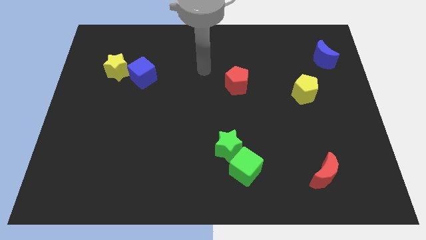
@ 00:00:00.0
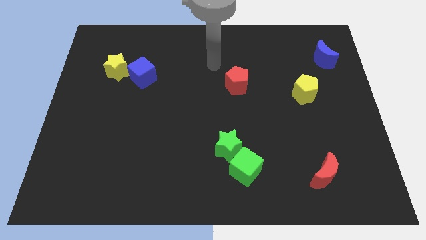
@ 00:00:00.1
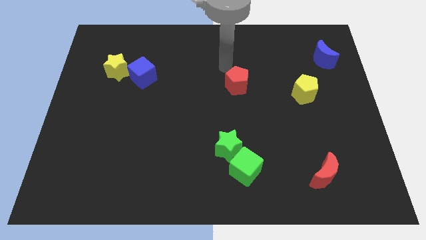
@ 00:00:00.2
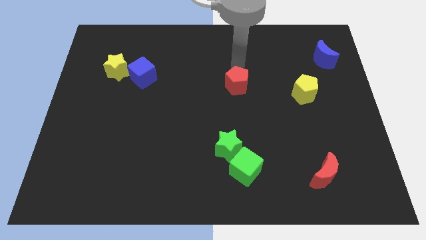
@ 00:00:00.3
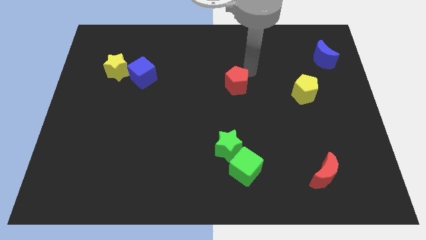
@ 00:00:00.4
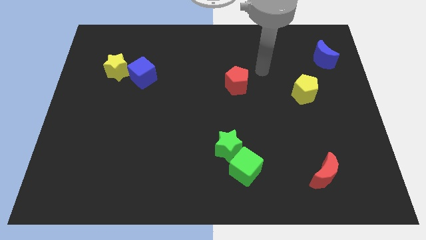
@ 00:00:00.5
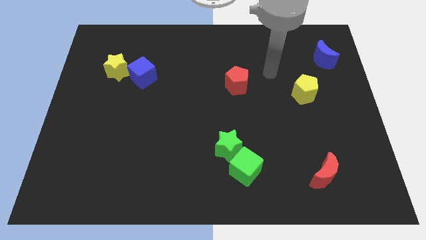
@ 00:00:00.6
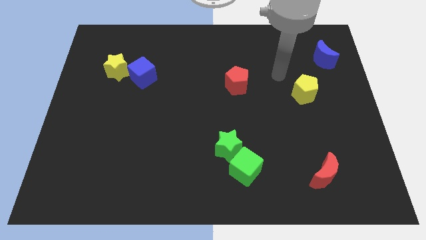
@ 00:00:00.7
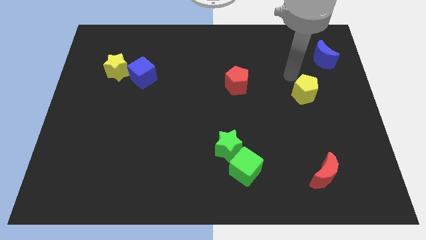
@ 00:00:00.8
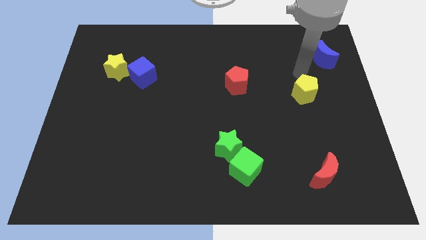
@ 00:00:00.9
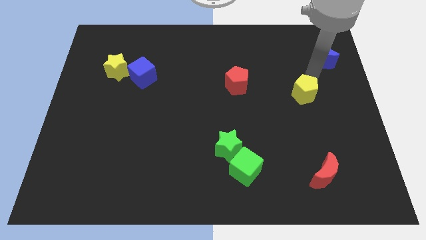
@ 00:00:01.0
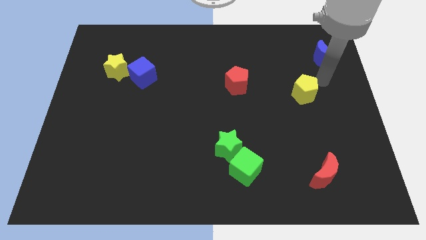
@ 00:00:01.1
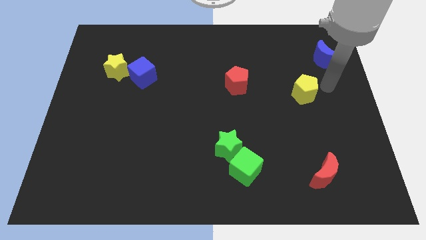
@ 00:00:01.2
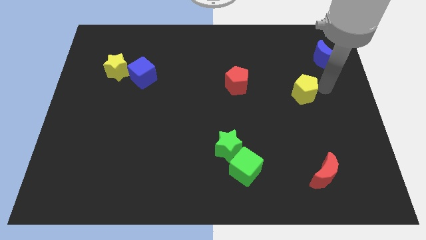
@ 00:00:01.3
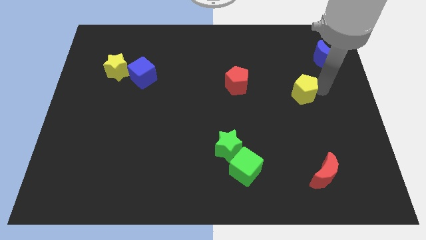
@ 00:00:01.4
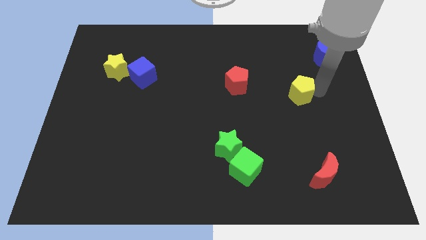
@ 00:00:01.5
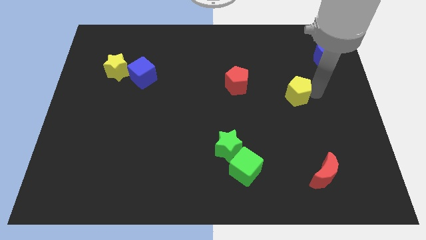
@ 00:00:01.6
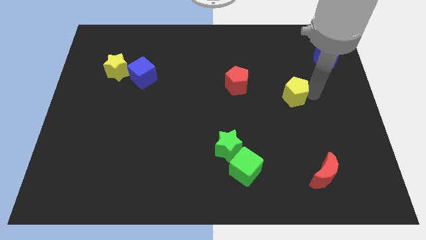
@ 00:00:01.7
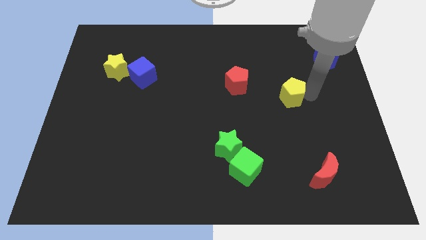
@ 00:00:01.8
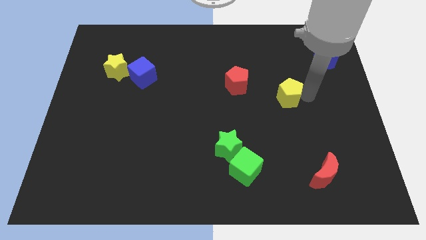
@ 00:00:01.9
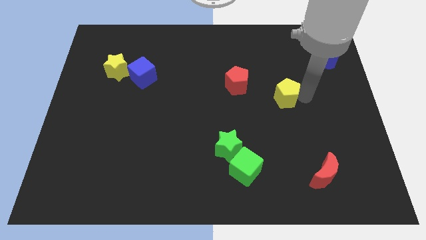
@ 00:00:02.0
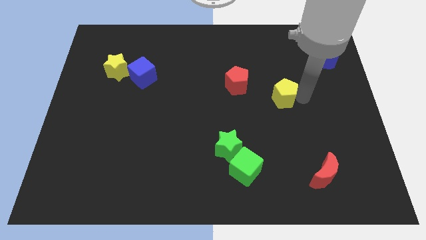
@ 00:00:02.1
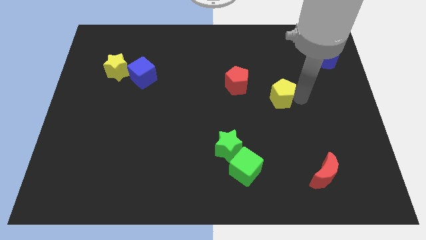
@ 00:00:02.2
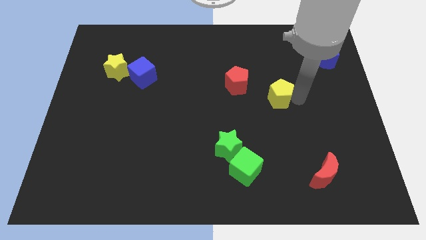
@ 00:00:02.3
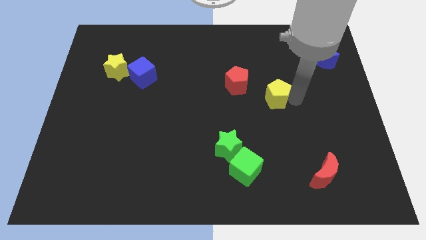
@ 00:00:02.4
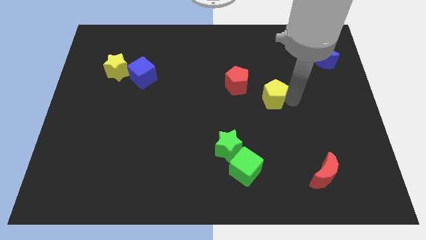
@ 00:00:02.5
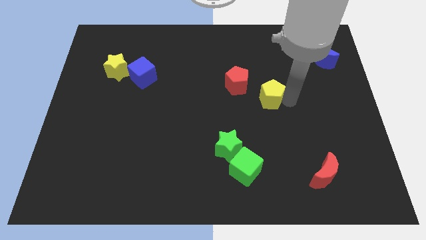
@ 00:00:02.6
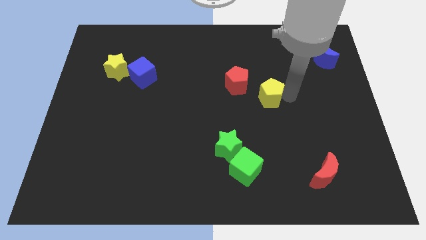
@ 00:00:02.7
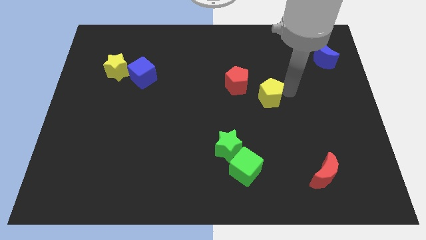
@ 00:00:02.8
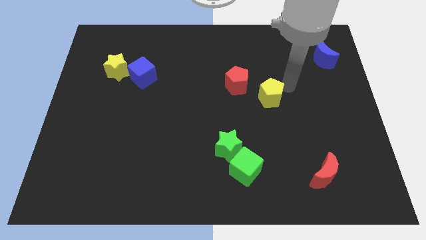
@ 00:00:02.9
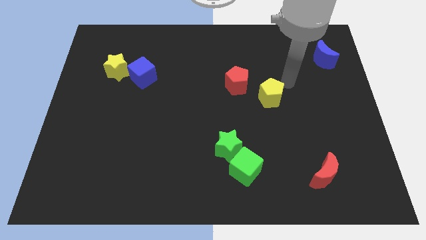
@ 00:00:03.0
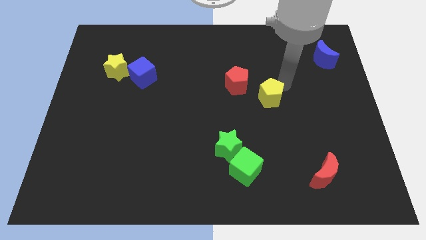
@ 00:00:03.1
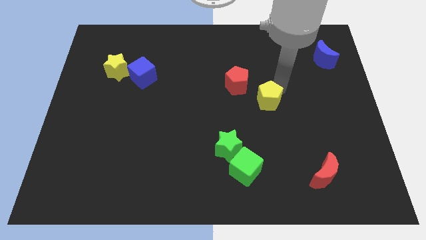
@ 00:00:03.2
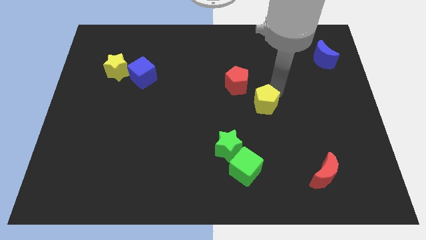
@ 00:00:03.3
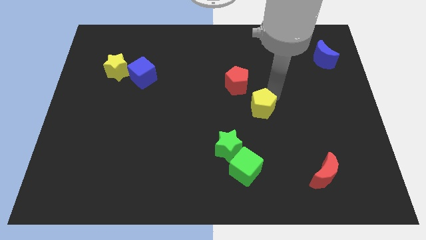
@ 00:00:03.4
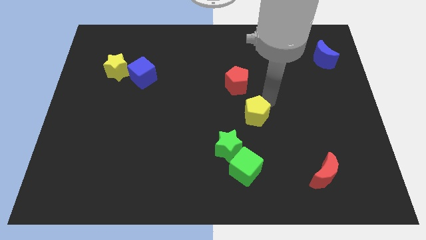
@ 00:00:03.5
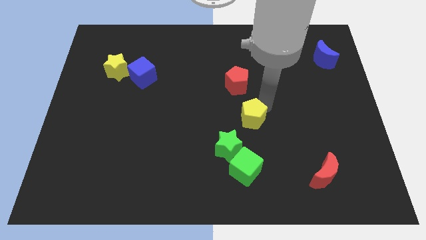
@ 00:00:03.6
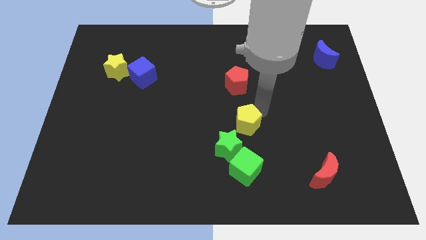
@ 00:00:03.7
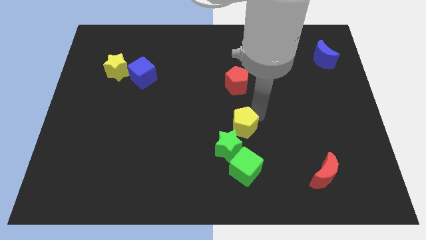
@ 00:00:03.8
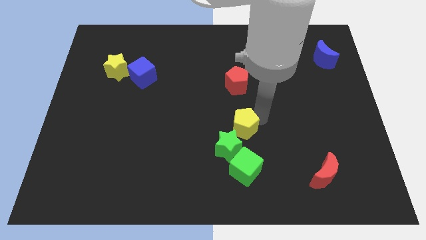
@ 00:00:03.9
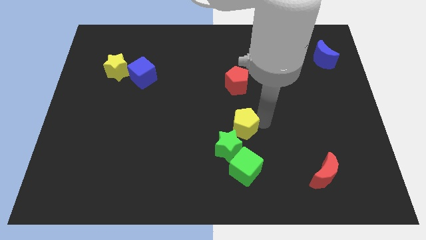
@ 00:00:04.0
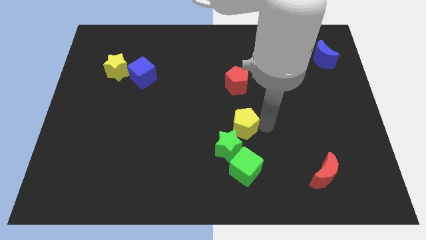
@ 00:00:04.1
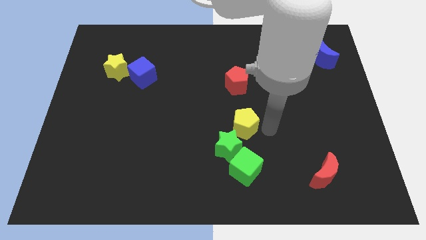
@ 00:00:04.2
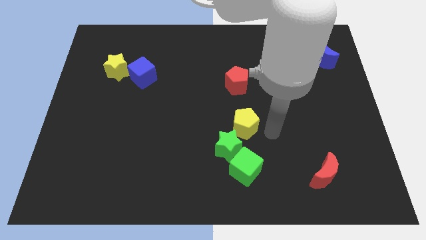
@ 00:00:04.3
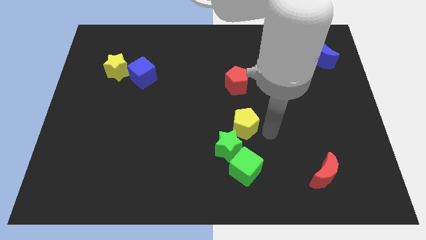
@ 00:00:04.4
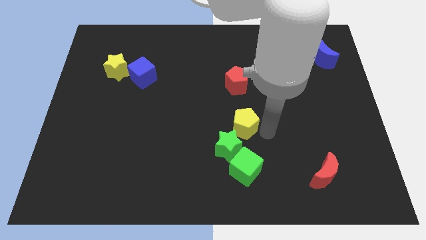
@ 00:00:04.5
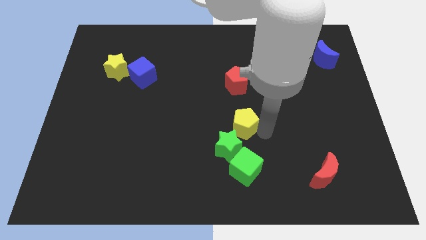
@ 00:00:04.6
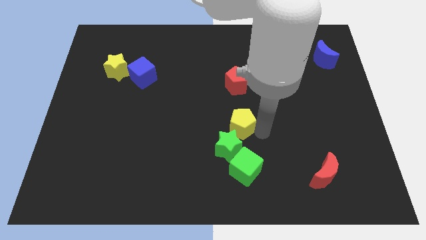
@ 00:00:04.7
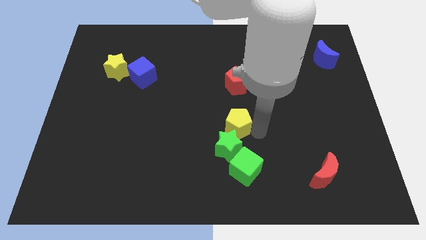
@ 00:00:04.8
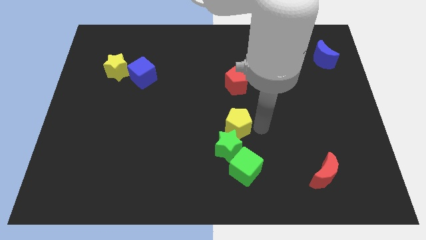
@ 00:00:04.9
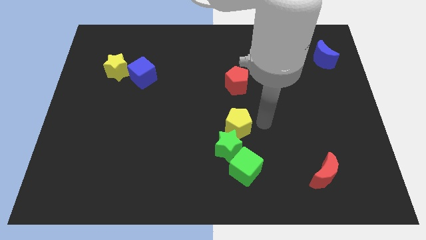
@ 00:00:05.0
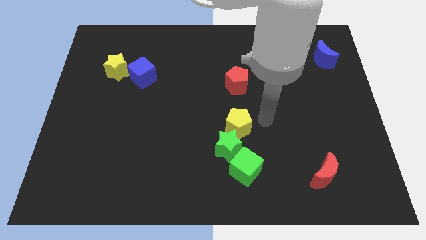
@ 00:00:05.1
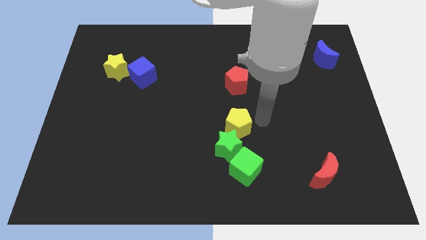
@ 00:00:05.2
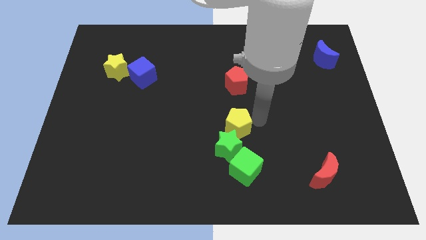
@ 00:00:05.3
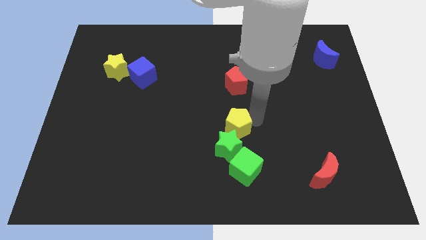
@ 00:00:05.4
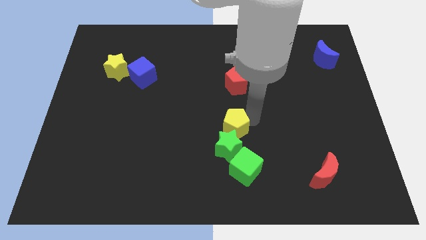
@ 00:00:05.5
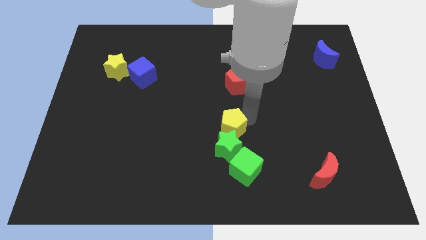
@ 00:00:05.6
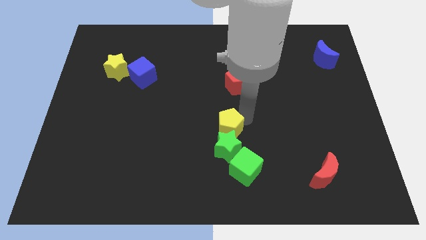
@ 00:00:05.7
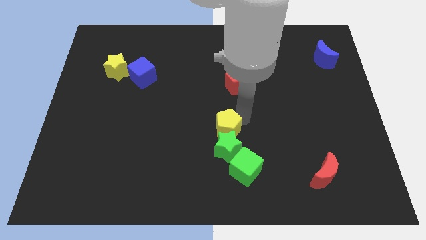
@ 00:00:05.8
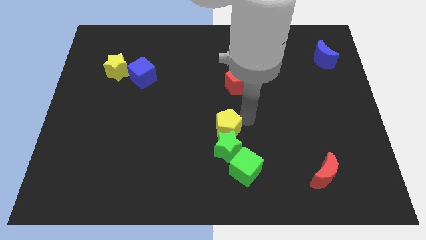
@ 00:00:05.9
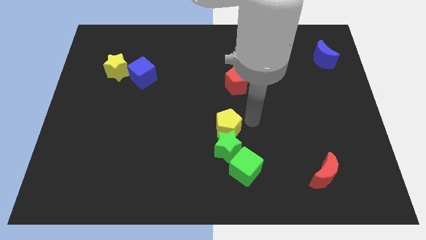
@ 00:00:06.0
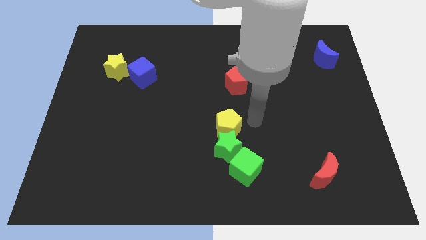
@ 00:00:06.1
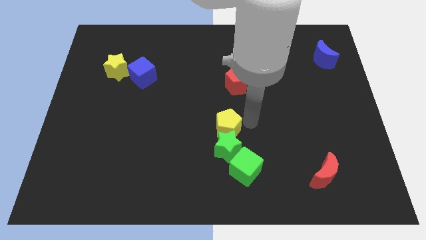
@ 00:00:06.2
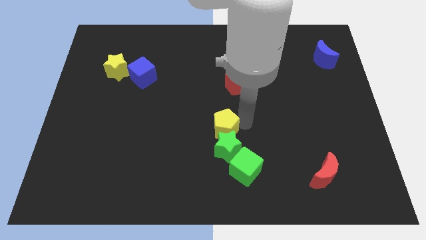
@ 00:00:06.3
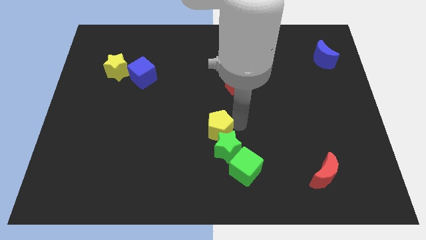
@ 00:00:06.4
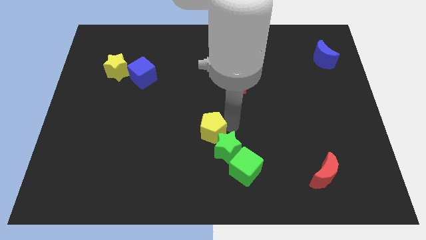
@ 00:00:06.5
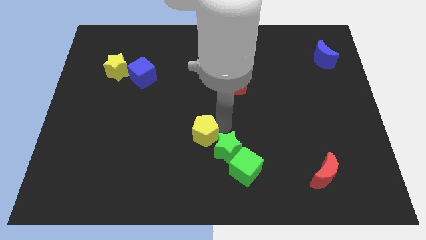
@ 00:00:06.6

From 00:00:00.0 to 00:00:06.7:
push the yellow pentagon left of the green star
